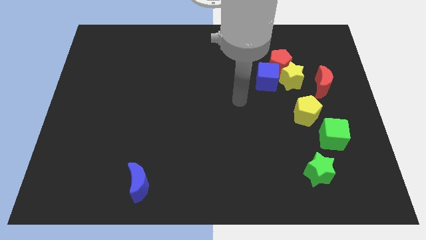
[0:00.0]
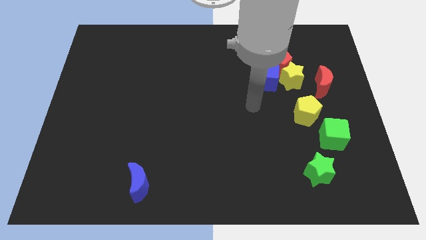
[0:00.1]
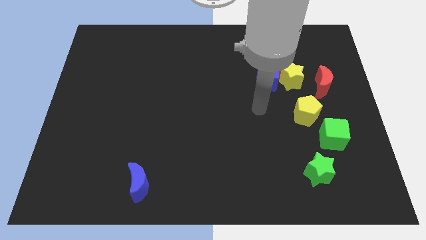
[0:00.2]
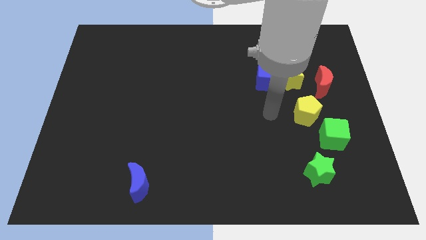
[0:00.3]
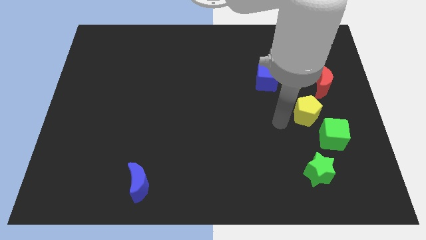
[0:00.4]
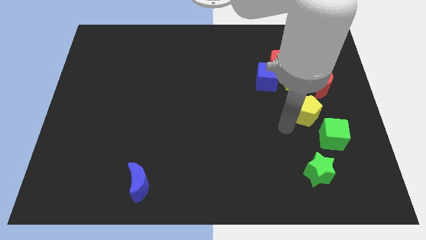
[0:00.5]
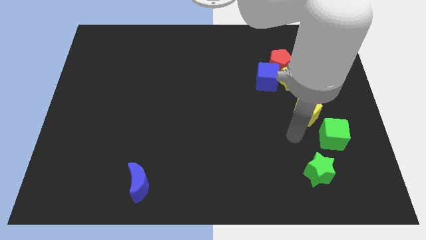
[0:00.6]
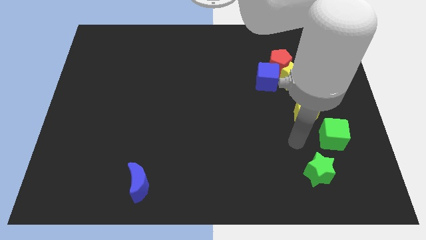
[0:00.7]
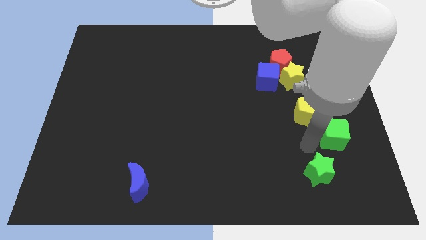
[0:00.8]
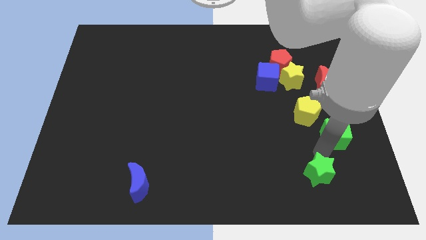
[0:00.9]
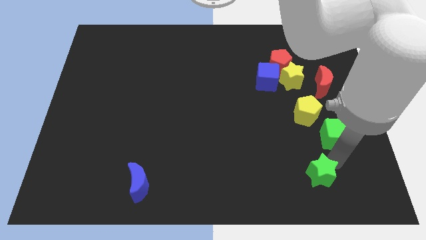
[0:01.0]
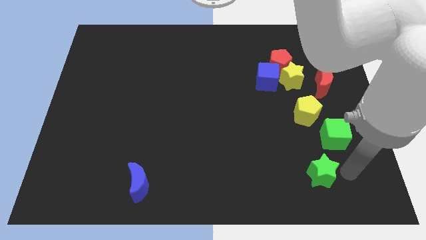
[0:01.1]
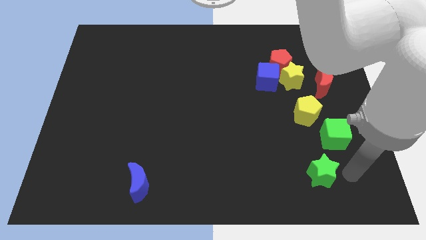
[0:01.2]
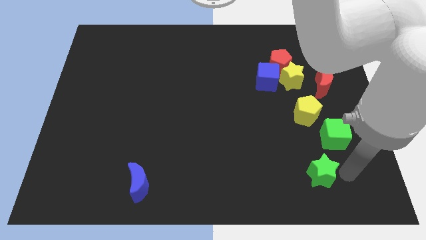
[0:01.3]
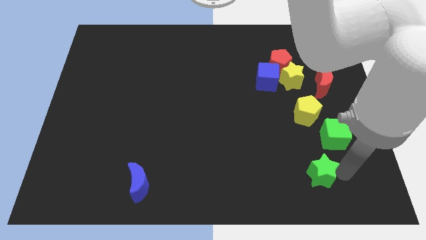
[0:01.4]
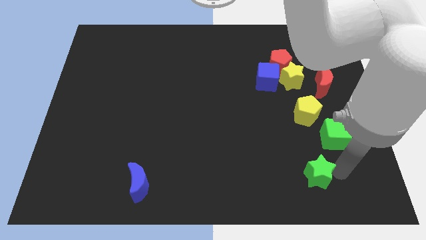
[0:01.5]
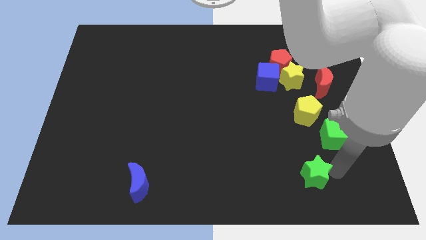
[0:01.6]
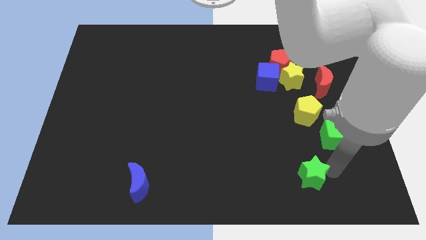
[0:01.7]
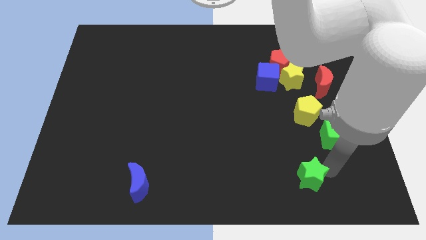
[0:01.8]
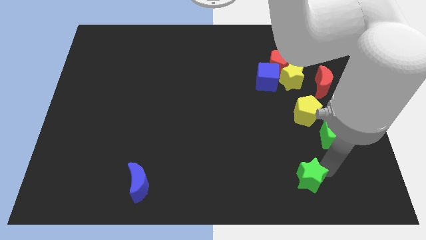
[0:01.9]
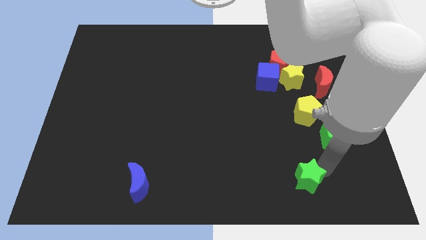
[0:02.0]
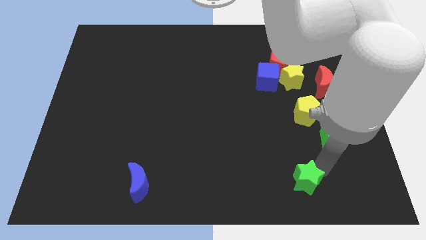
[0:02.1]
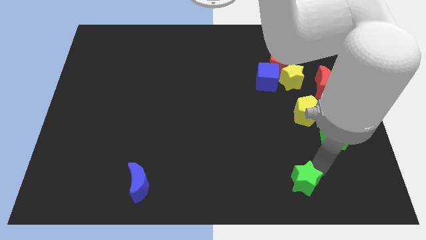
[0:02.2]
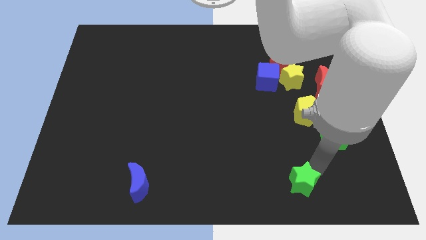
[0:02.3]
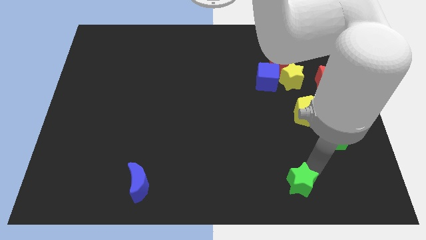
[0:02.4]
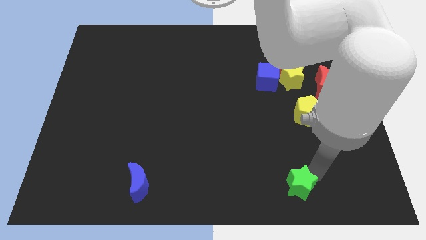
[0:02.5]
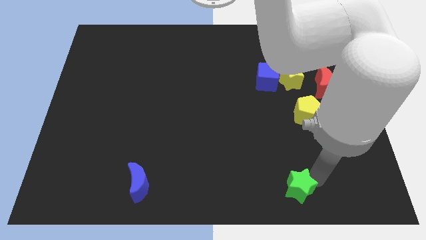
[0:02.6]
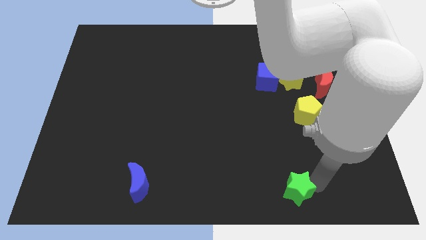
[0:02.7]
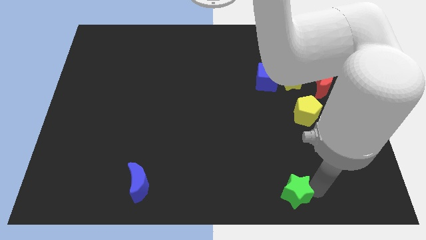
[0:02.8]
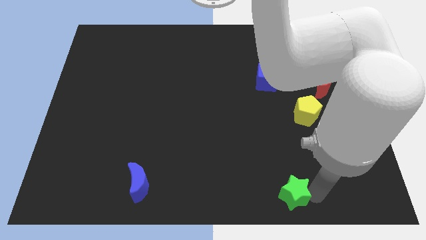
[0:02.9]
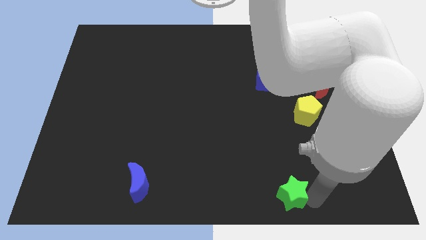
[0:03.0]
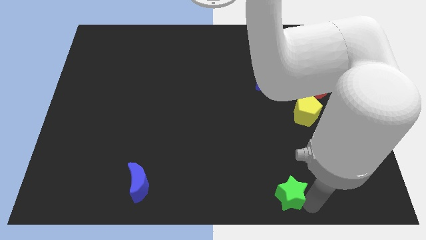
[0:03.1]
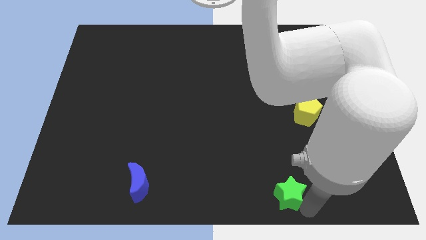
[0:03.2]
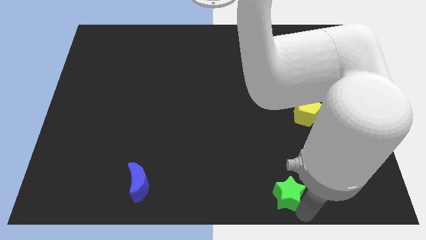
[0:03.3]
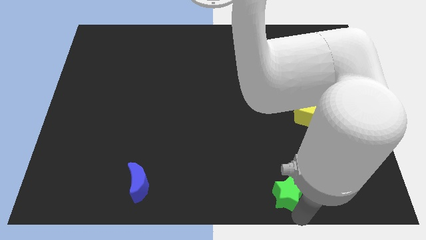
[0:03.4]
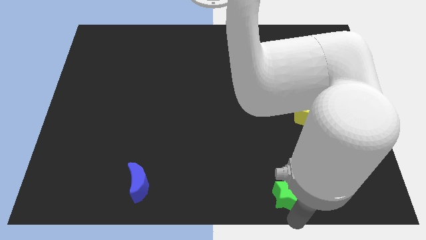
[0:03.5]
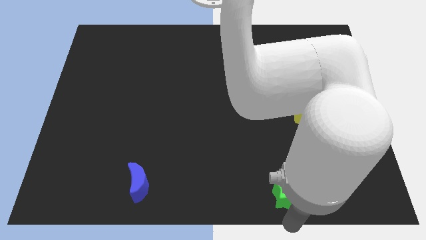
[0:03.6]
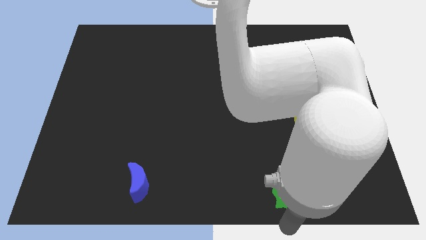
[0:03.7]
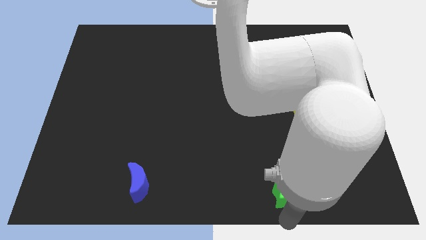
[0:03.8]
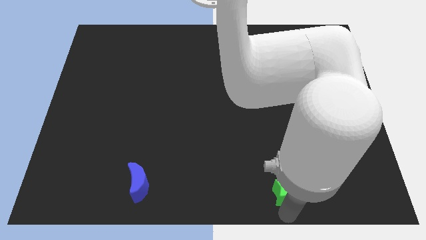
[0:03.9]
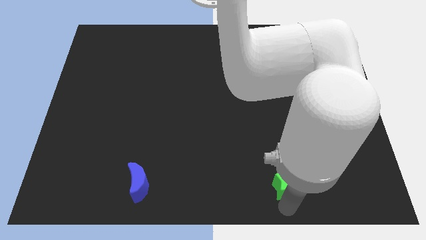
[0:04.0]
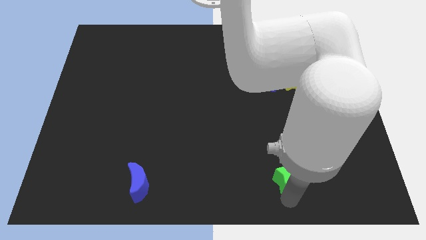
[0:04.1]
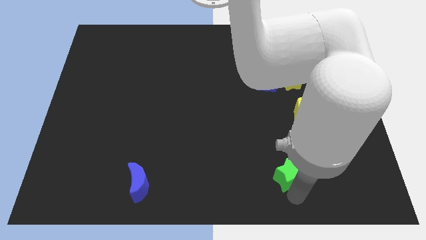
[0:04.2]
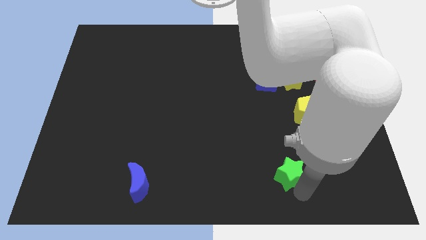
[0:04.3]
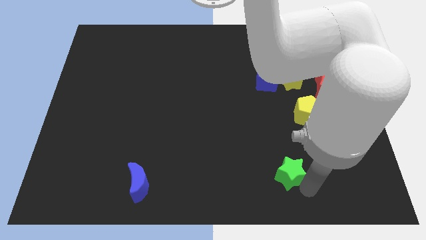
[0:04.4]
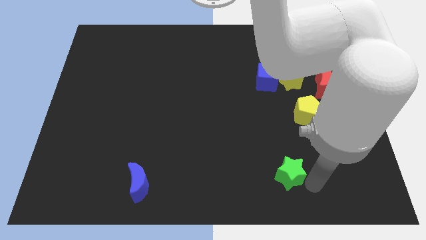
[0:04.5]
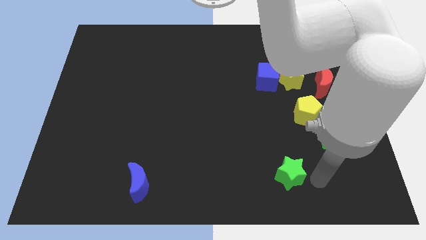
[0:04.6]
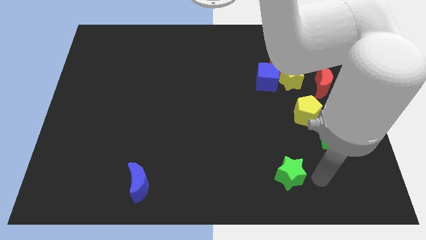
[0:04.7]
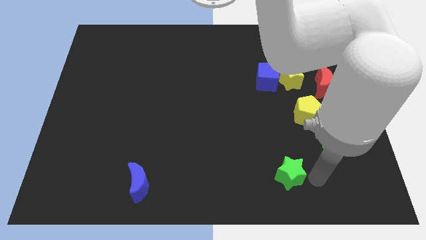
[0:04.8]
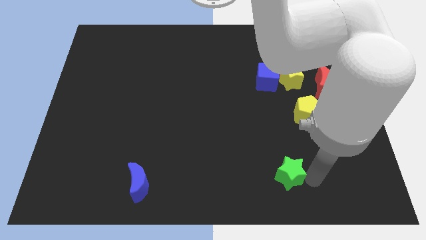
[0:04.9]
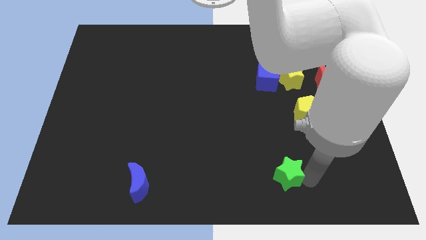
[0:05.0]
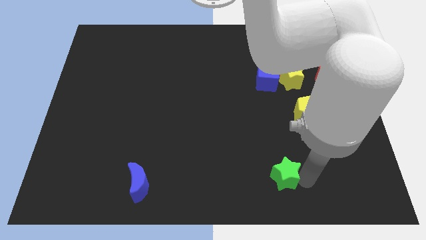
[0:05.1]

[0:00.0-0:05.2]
slide the green star a little bit to the left

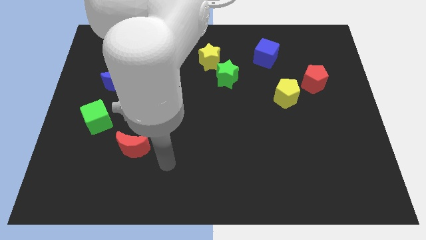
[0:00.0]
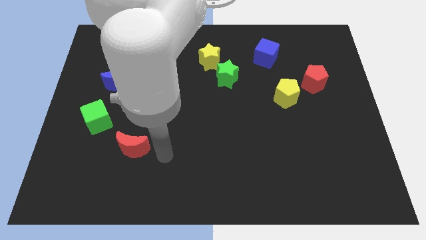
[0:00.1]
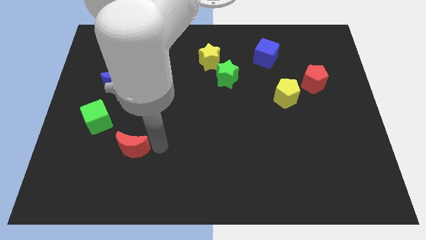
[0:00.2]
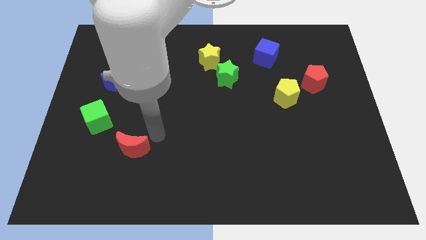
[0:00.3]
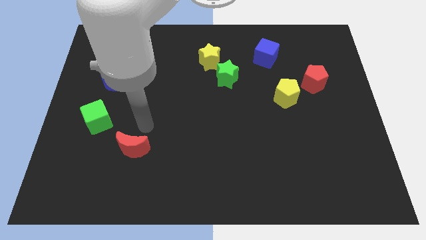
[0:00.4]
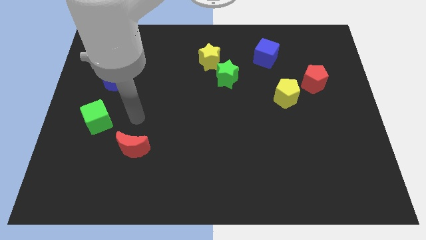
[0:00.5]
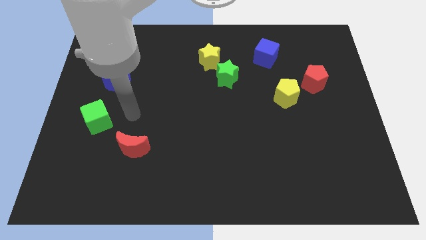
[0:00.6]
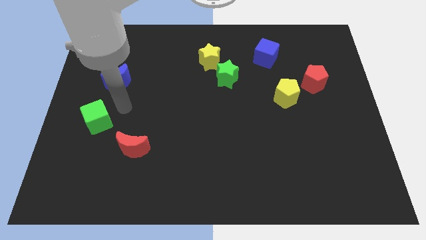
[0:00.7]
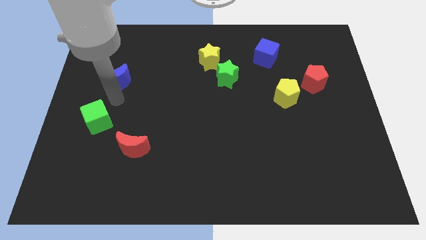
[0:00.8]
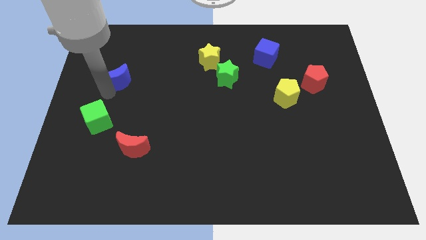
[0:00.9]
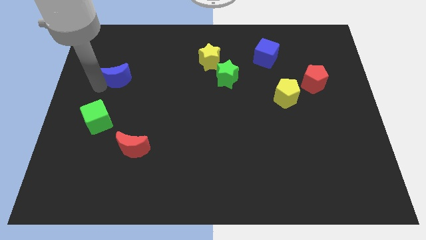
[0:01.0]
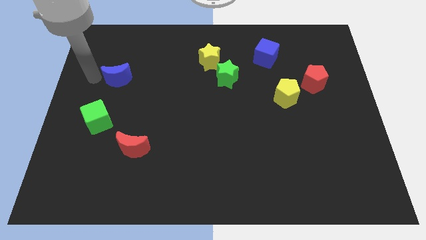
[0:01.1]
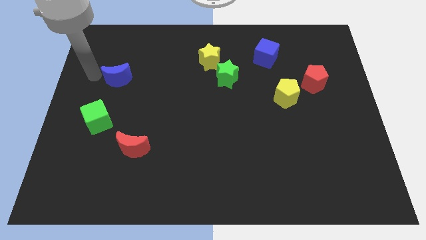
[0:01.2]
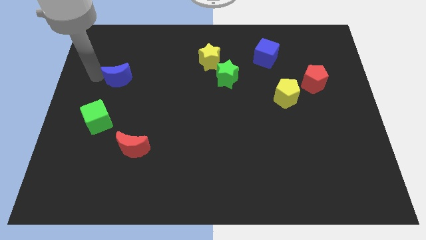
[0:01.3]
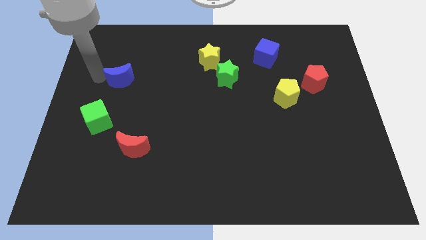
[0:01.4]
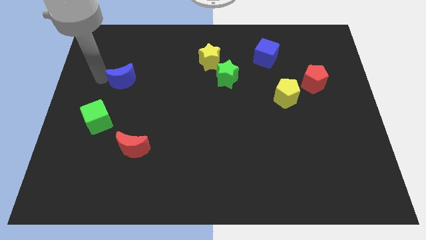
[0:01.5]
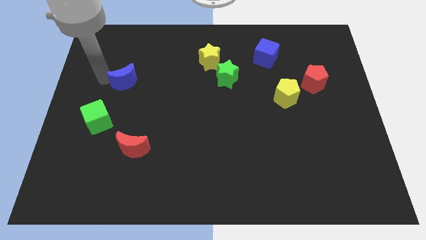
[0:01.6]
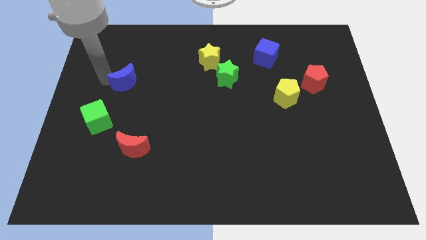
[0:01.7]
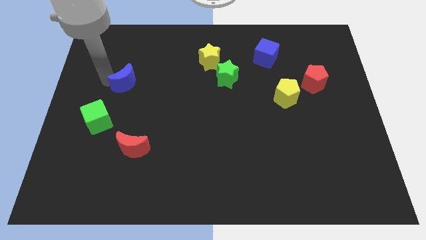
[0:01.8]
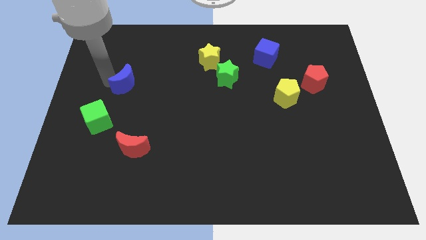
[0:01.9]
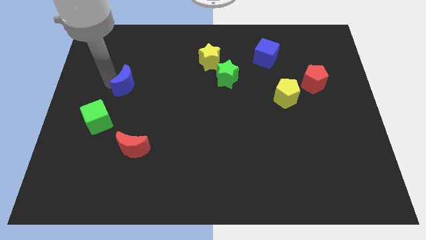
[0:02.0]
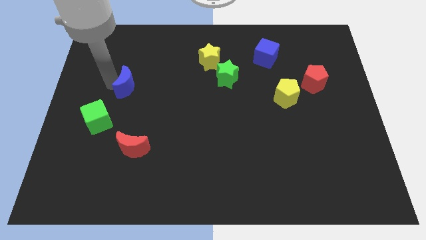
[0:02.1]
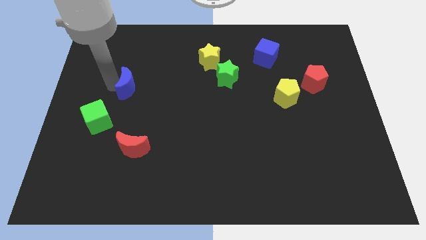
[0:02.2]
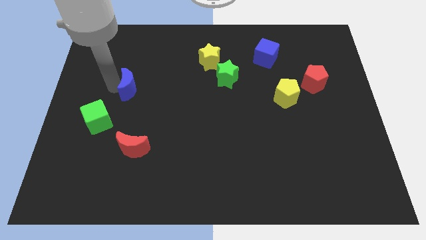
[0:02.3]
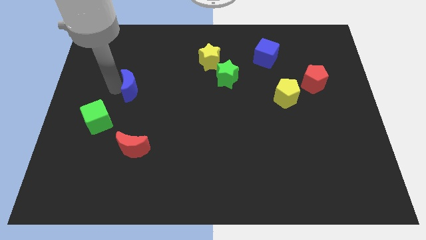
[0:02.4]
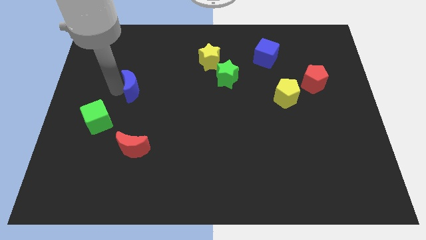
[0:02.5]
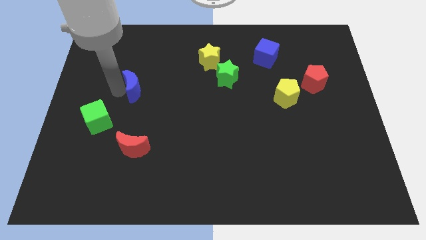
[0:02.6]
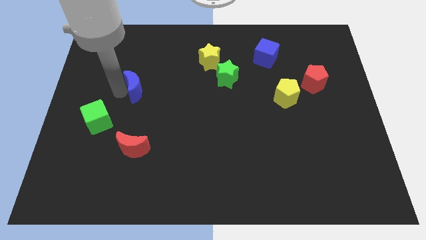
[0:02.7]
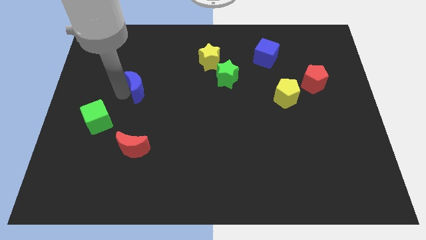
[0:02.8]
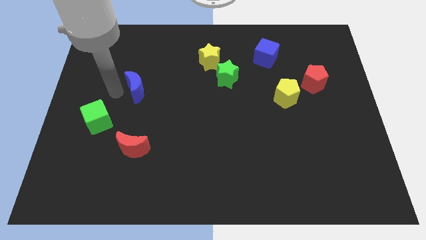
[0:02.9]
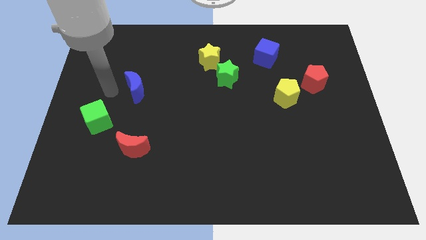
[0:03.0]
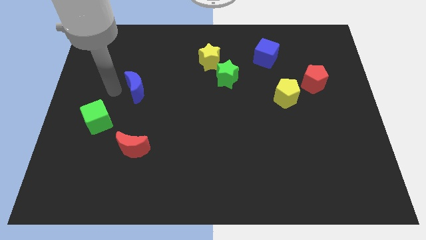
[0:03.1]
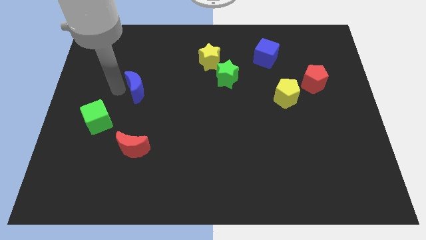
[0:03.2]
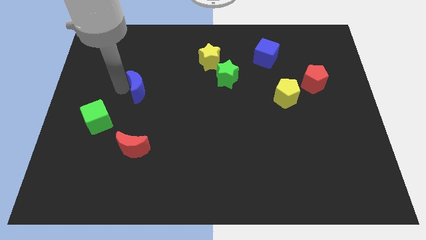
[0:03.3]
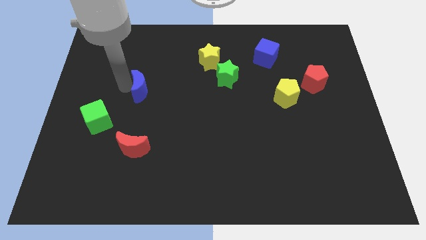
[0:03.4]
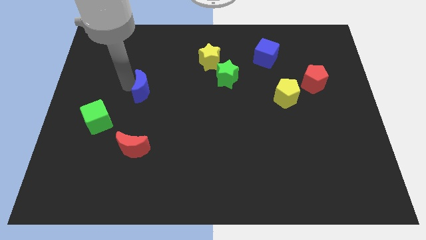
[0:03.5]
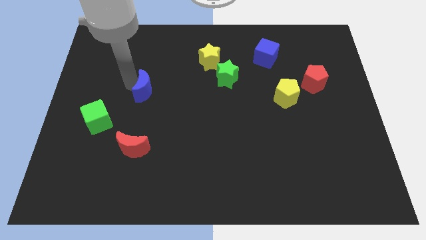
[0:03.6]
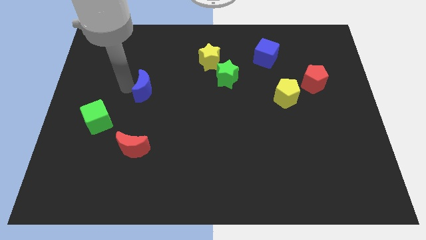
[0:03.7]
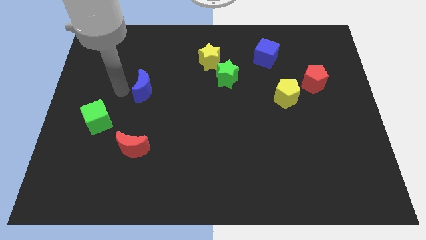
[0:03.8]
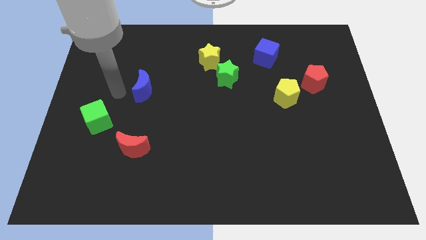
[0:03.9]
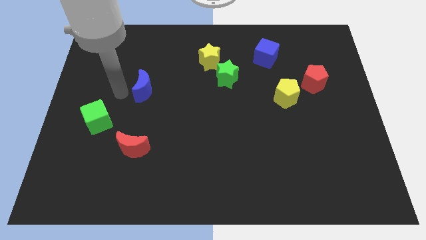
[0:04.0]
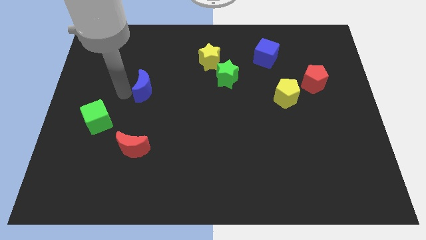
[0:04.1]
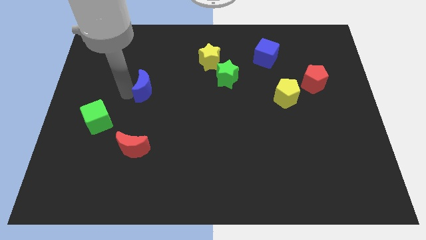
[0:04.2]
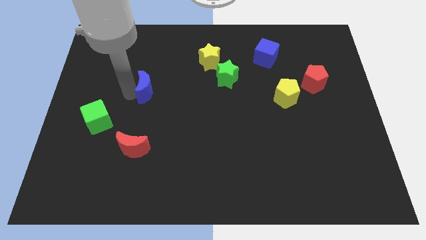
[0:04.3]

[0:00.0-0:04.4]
slide the blue moon somewhat right
